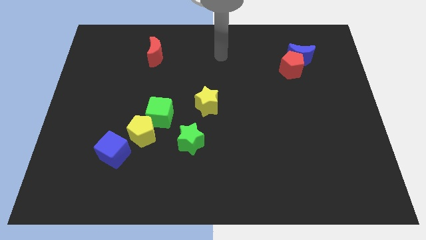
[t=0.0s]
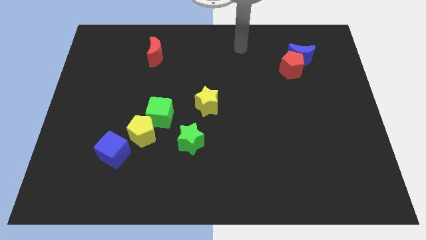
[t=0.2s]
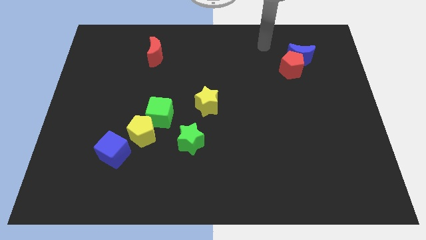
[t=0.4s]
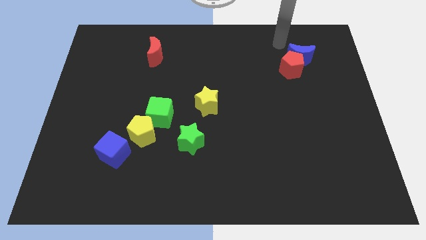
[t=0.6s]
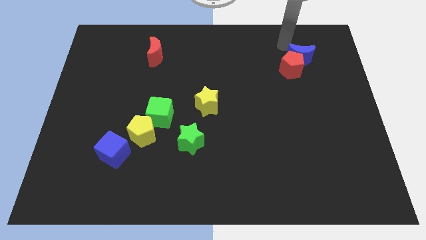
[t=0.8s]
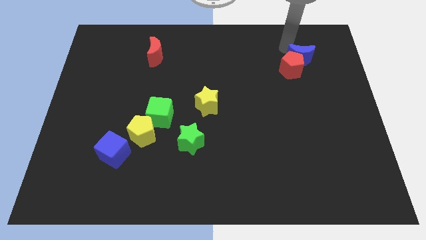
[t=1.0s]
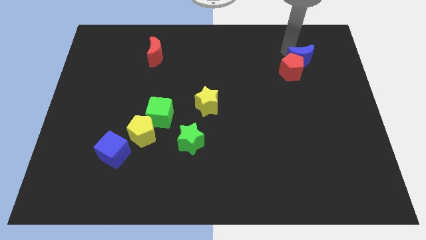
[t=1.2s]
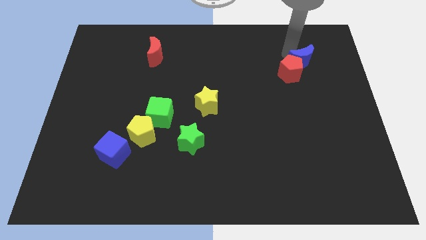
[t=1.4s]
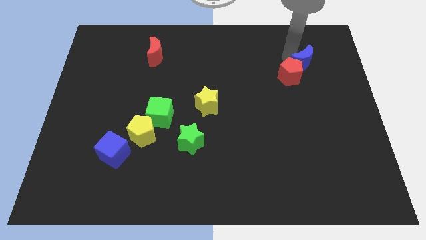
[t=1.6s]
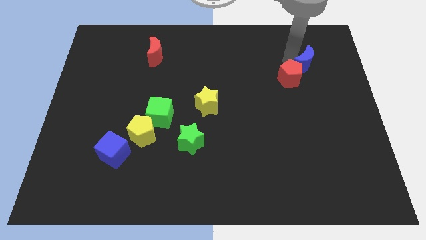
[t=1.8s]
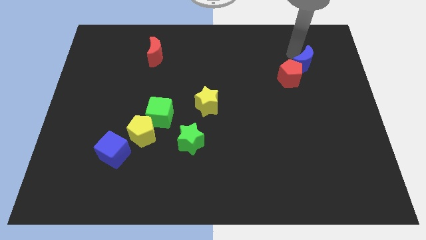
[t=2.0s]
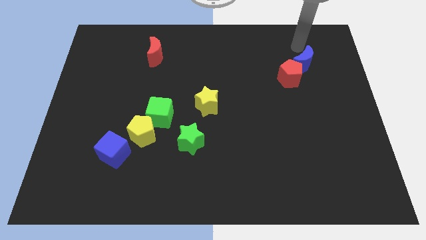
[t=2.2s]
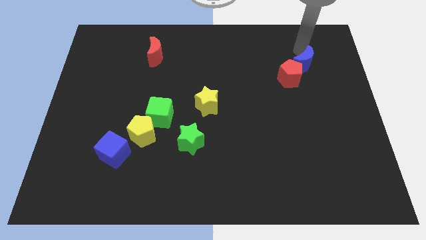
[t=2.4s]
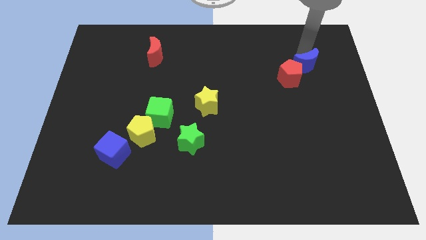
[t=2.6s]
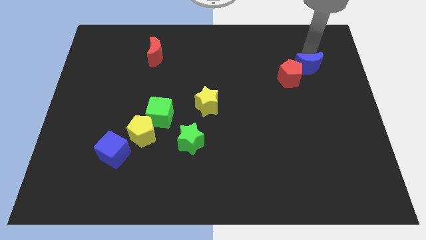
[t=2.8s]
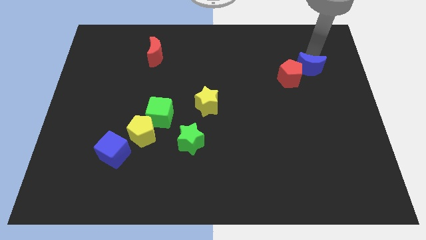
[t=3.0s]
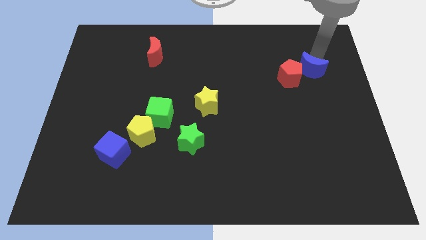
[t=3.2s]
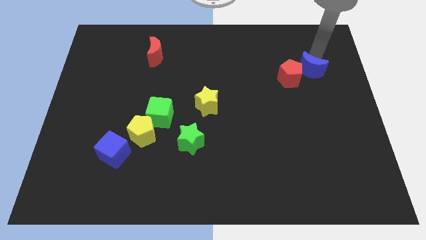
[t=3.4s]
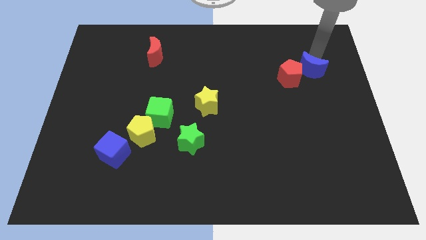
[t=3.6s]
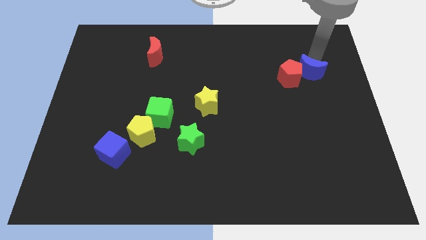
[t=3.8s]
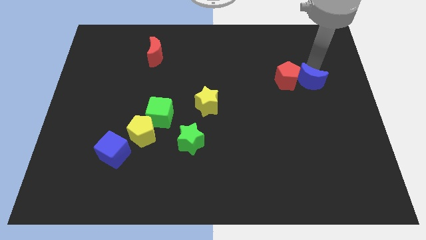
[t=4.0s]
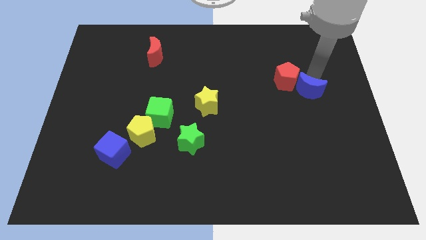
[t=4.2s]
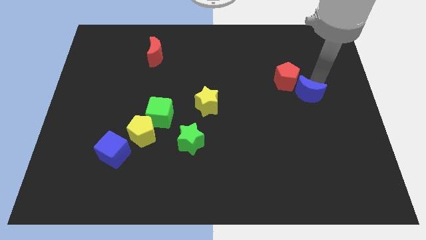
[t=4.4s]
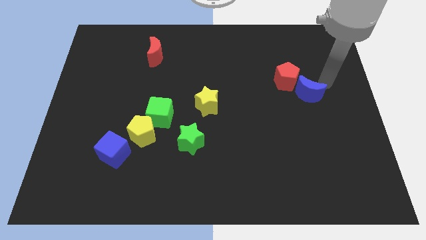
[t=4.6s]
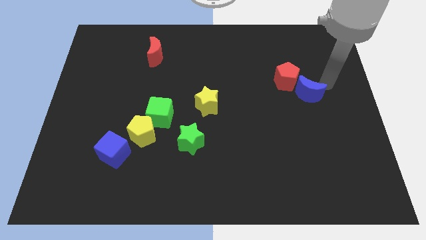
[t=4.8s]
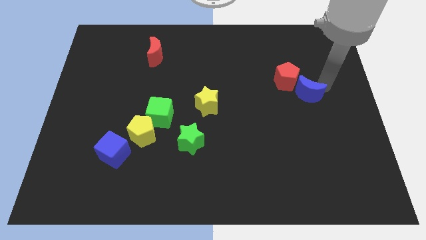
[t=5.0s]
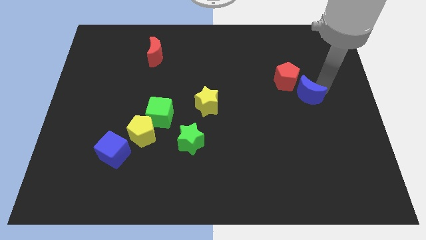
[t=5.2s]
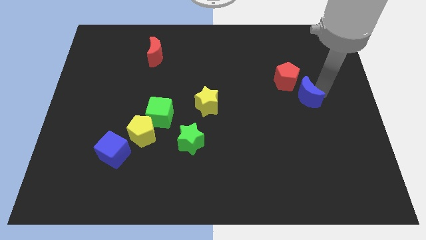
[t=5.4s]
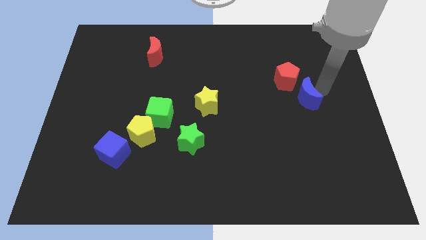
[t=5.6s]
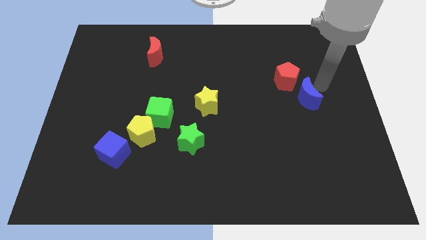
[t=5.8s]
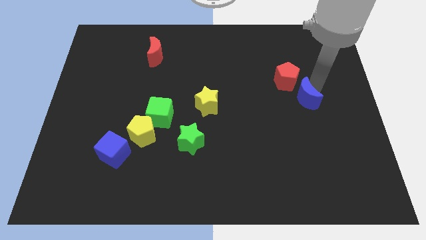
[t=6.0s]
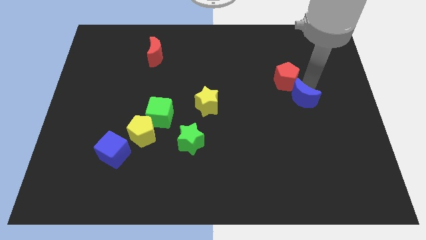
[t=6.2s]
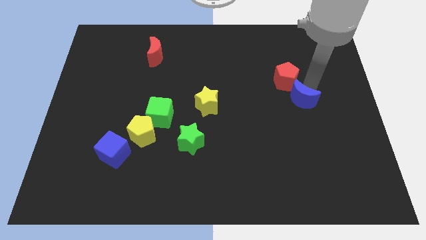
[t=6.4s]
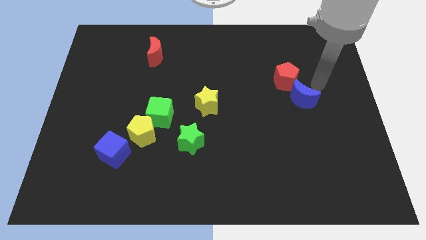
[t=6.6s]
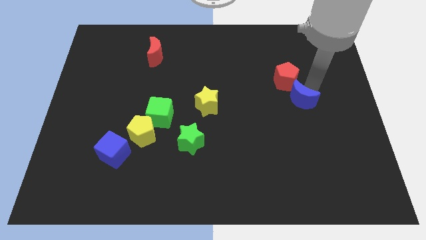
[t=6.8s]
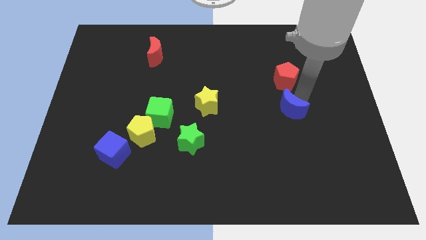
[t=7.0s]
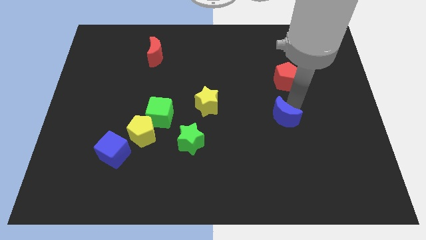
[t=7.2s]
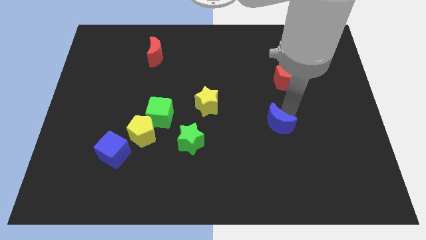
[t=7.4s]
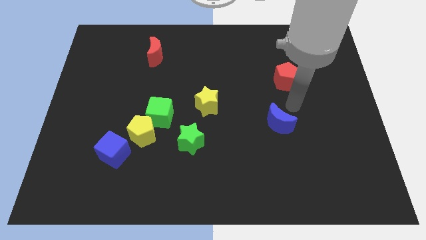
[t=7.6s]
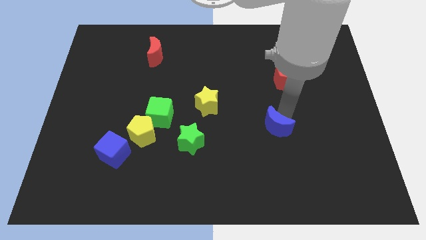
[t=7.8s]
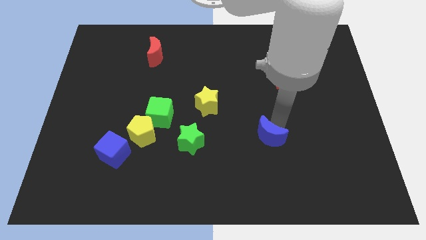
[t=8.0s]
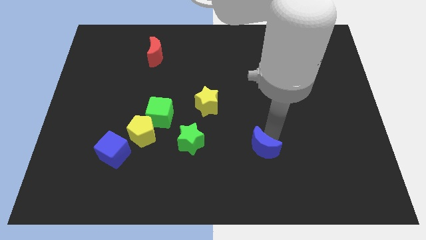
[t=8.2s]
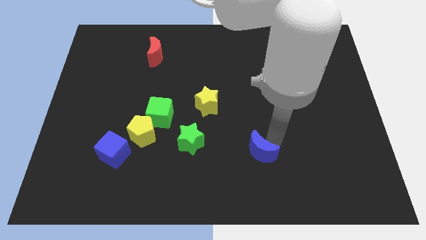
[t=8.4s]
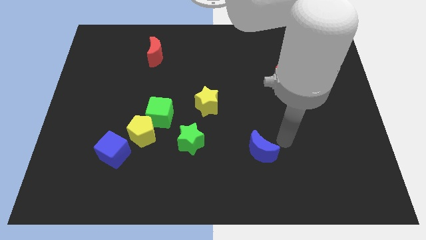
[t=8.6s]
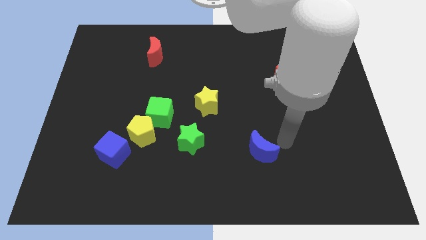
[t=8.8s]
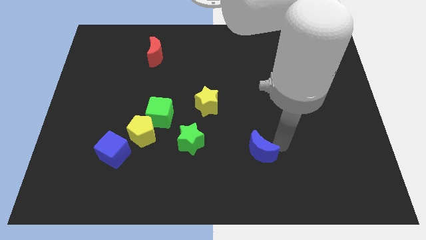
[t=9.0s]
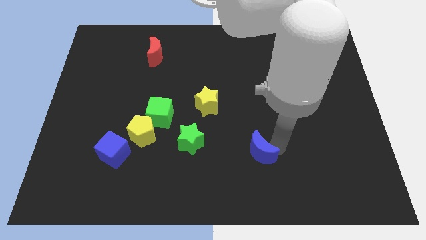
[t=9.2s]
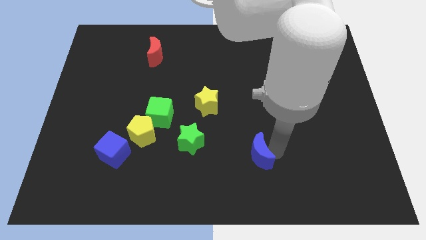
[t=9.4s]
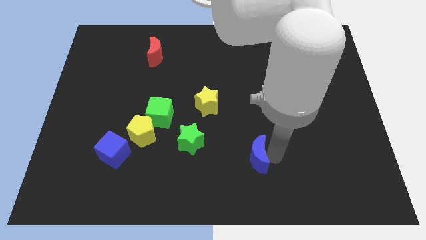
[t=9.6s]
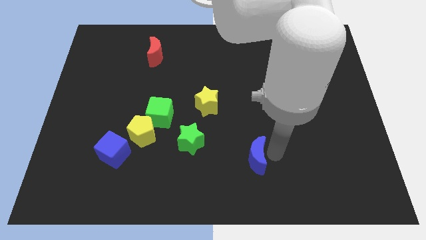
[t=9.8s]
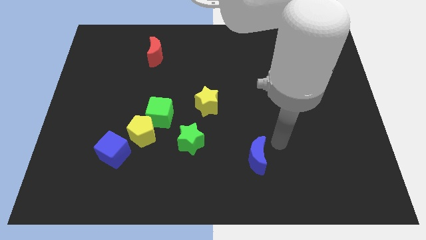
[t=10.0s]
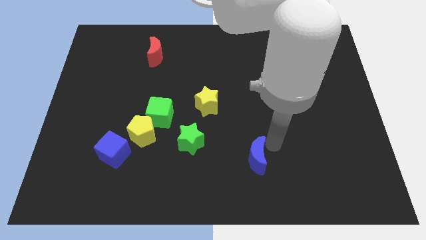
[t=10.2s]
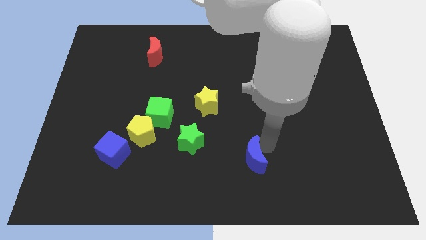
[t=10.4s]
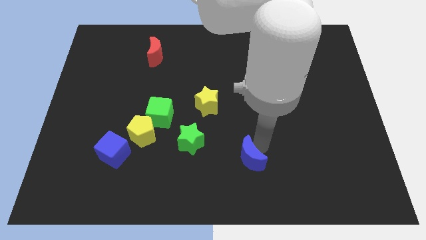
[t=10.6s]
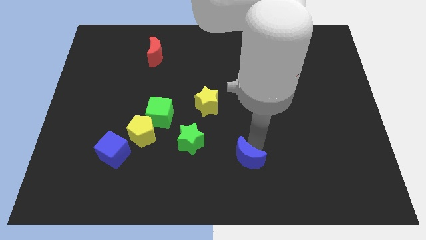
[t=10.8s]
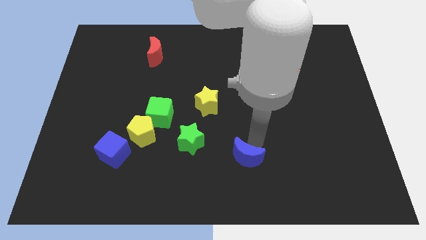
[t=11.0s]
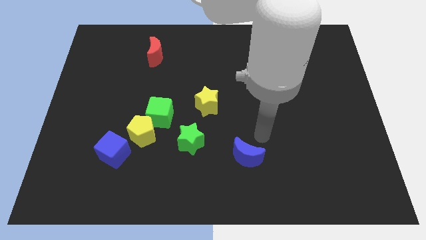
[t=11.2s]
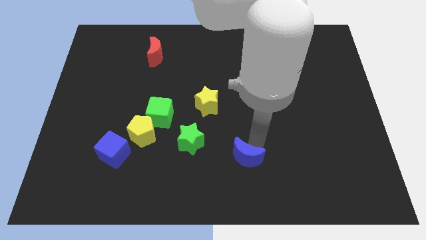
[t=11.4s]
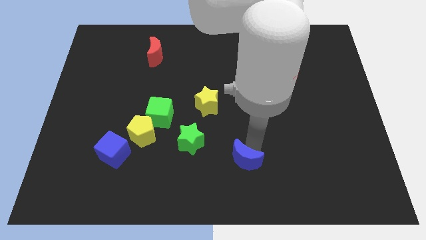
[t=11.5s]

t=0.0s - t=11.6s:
push the blue moon to the bottom
